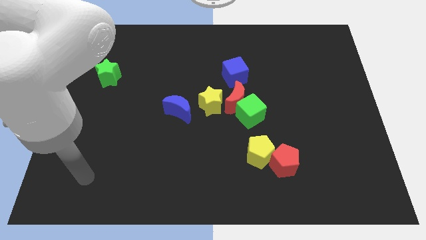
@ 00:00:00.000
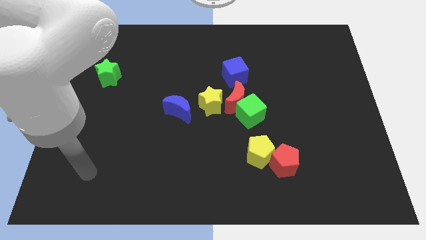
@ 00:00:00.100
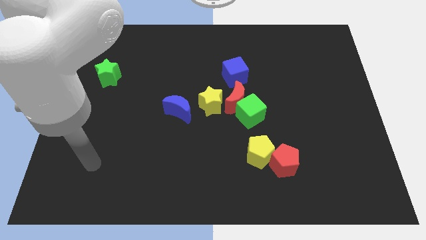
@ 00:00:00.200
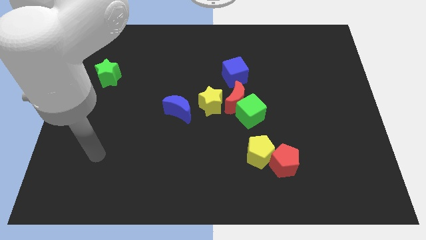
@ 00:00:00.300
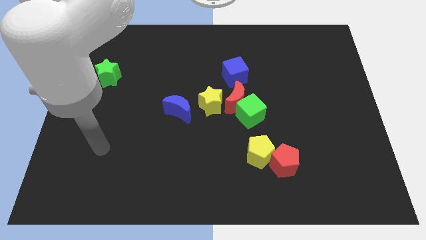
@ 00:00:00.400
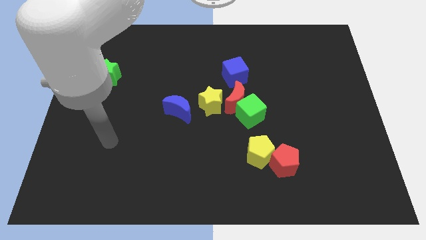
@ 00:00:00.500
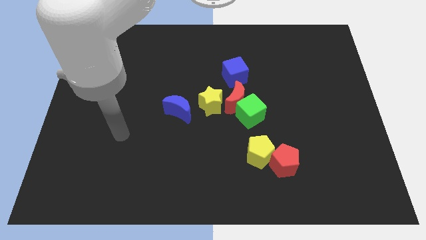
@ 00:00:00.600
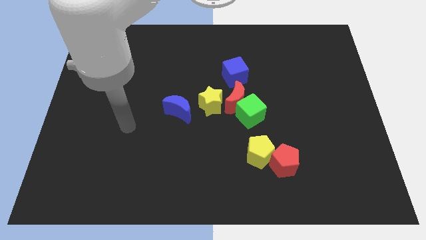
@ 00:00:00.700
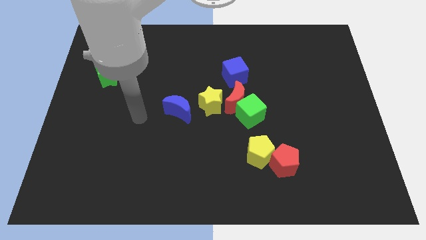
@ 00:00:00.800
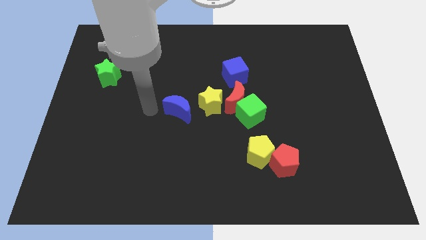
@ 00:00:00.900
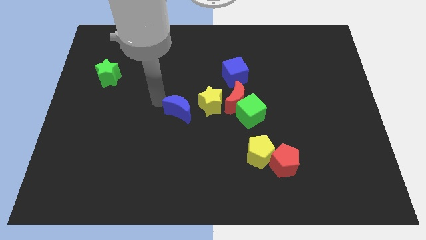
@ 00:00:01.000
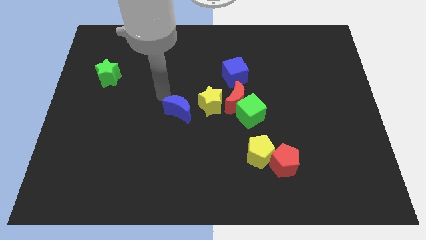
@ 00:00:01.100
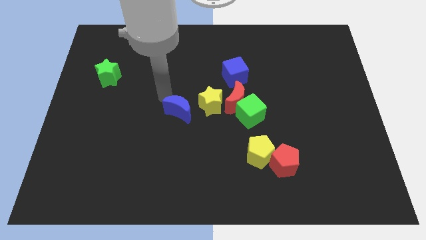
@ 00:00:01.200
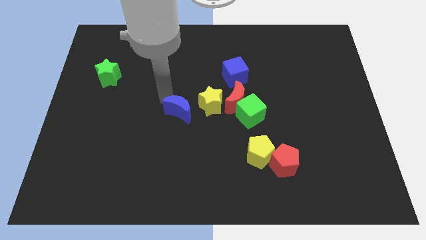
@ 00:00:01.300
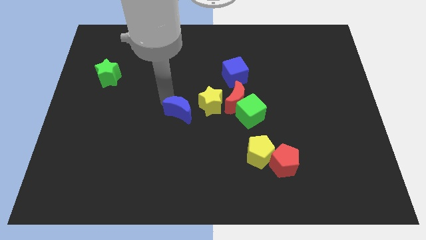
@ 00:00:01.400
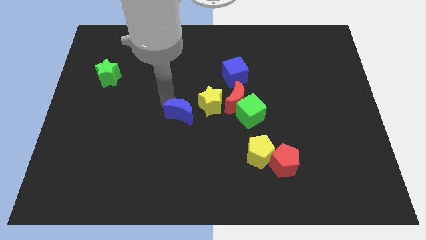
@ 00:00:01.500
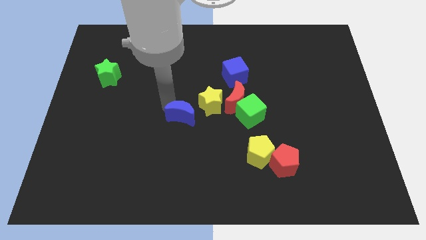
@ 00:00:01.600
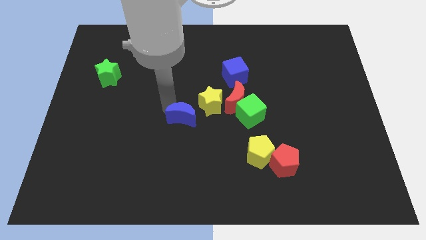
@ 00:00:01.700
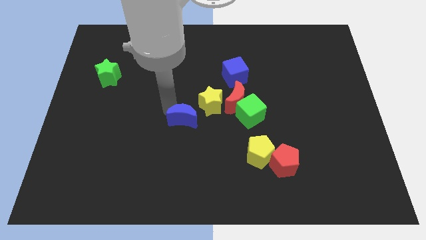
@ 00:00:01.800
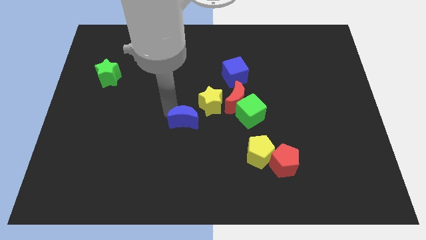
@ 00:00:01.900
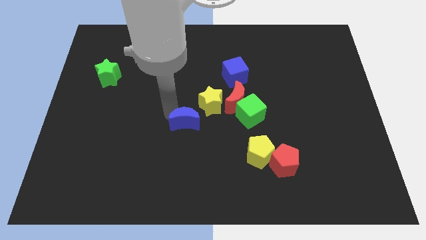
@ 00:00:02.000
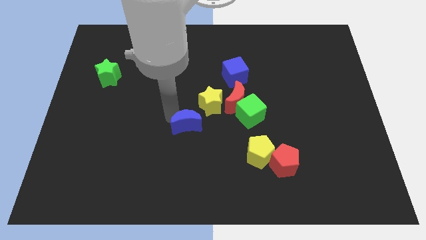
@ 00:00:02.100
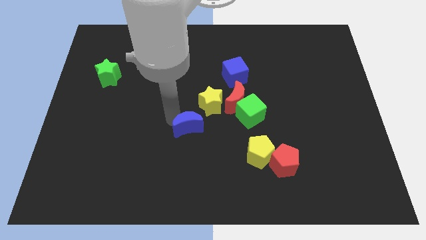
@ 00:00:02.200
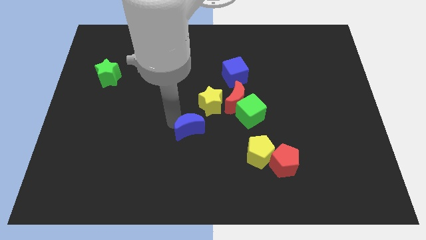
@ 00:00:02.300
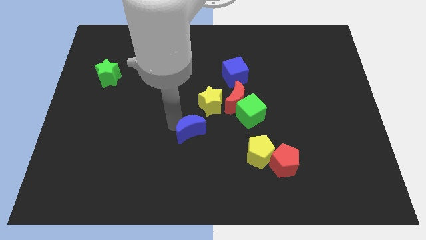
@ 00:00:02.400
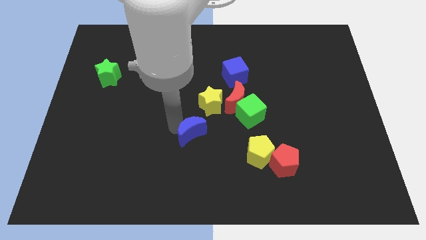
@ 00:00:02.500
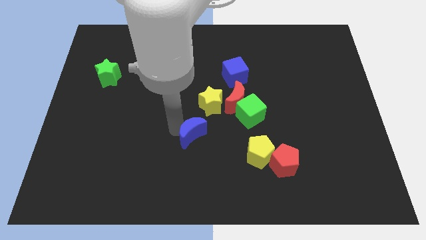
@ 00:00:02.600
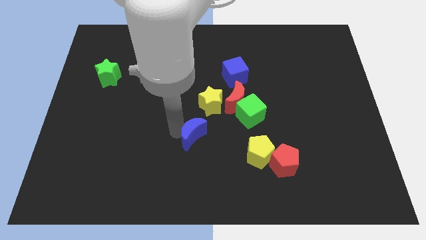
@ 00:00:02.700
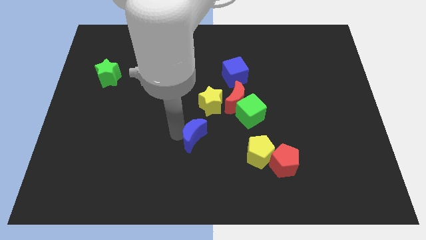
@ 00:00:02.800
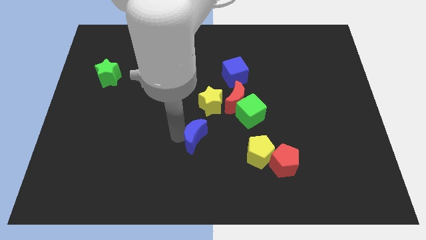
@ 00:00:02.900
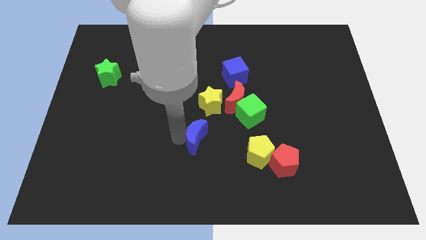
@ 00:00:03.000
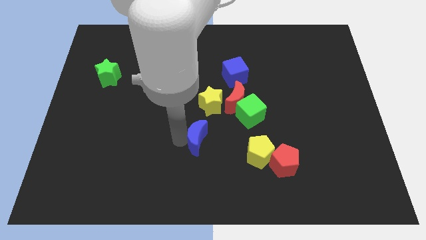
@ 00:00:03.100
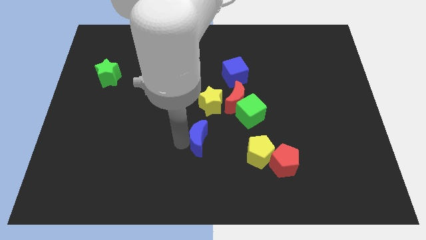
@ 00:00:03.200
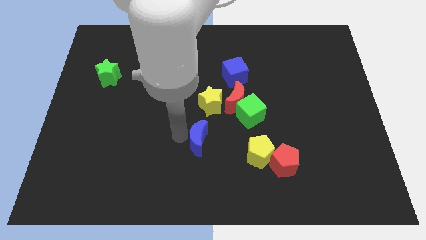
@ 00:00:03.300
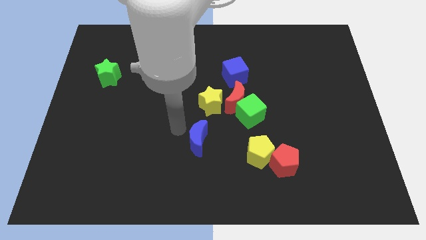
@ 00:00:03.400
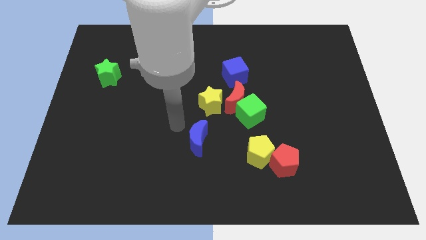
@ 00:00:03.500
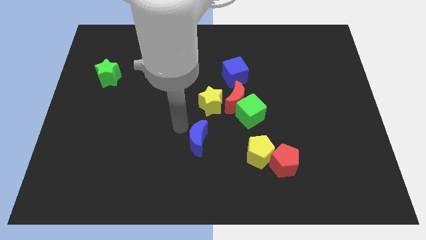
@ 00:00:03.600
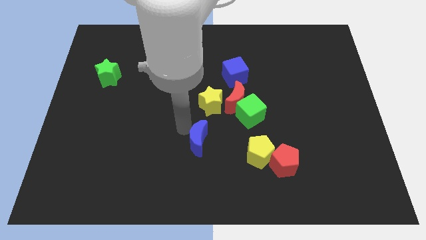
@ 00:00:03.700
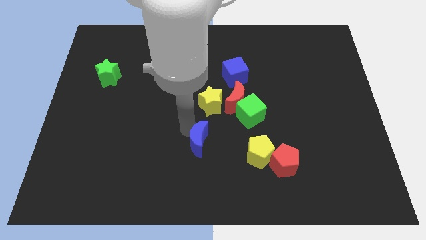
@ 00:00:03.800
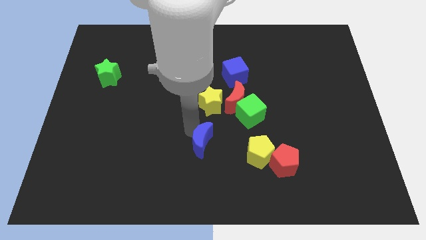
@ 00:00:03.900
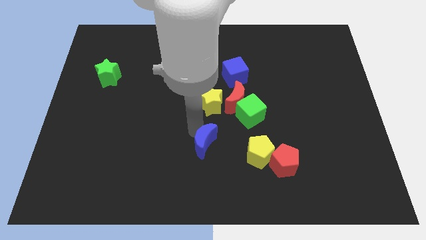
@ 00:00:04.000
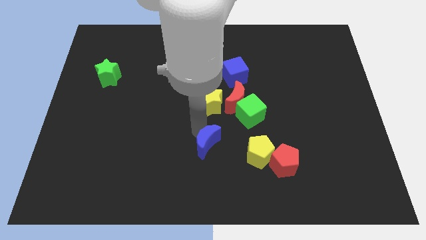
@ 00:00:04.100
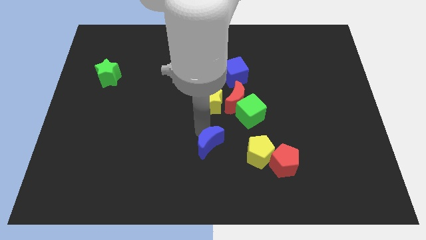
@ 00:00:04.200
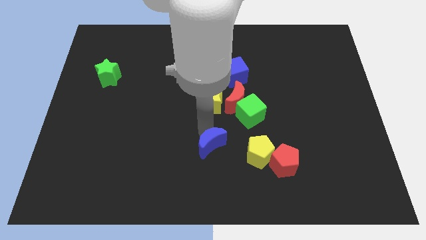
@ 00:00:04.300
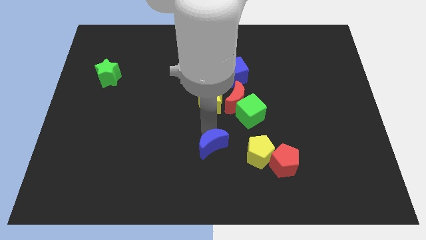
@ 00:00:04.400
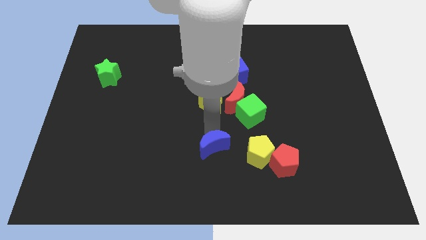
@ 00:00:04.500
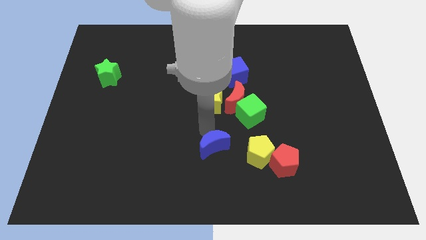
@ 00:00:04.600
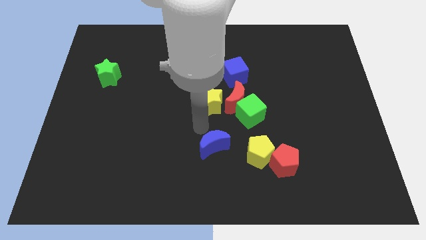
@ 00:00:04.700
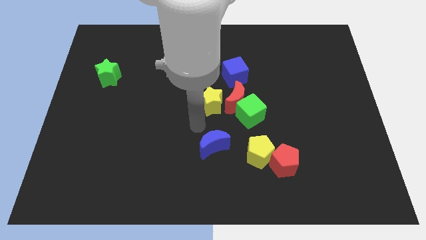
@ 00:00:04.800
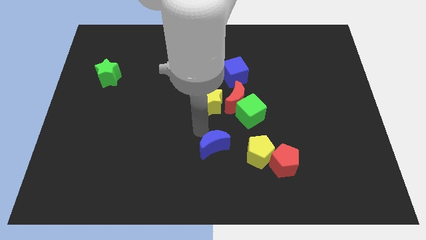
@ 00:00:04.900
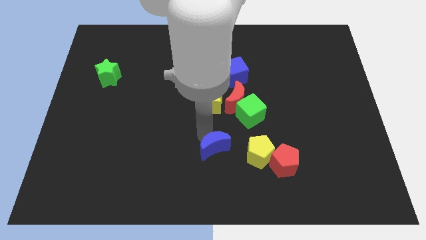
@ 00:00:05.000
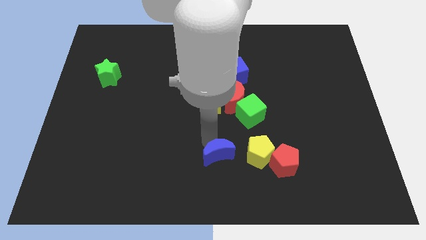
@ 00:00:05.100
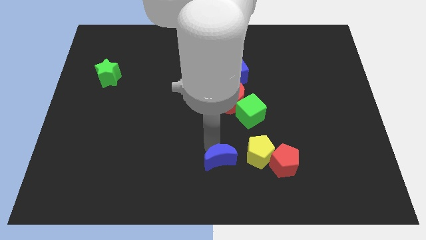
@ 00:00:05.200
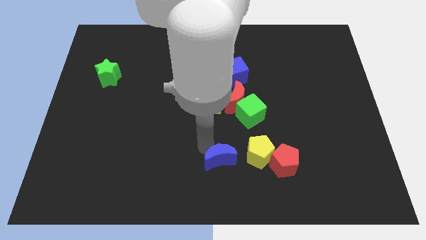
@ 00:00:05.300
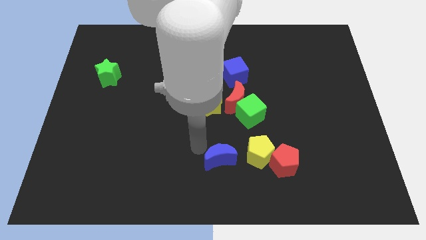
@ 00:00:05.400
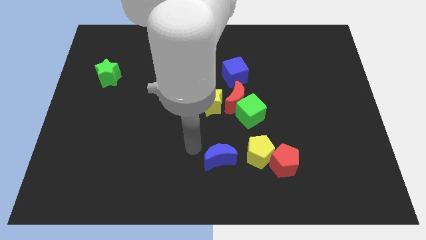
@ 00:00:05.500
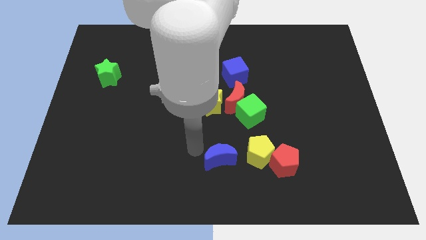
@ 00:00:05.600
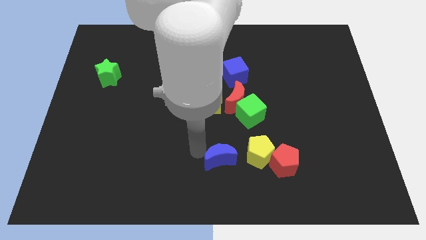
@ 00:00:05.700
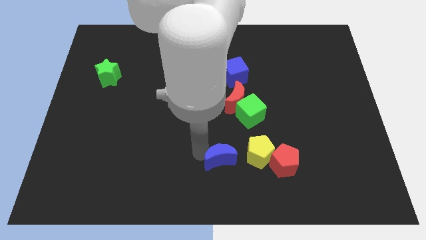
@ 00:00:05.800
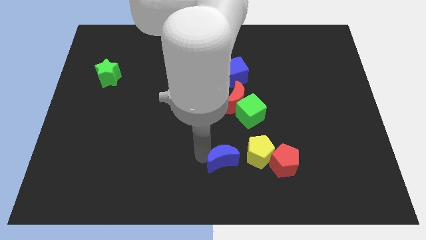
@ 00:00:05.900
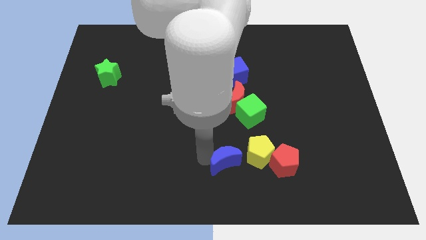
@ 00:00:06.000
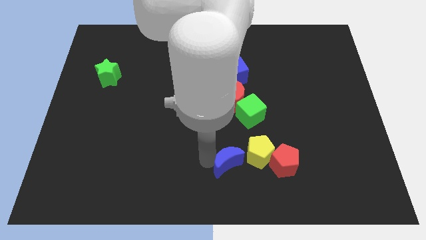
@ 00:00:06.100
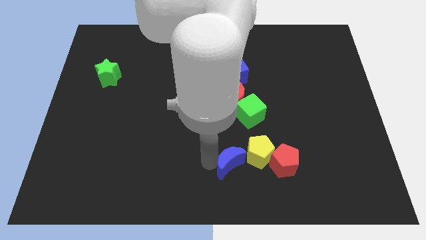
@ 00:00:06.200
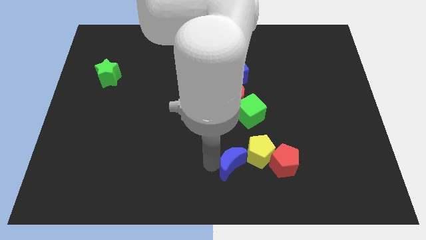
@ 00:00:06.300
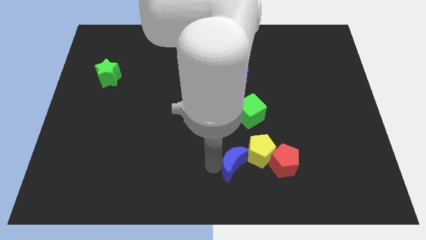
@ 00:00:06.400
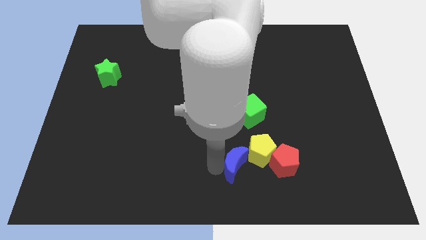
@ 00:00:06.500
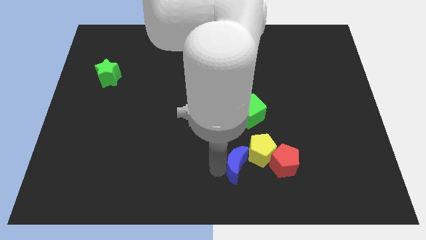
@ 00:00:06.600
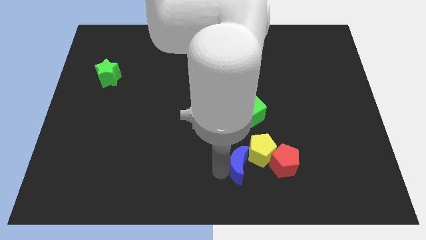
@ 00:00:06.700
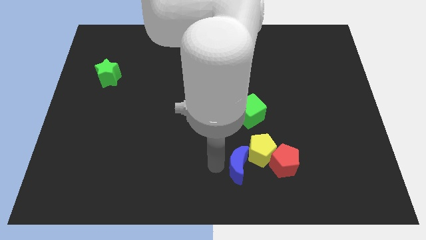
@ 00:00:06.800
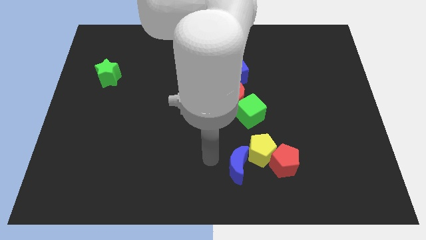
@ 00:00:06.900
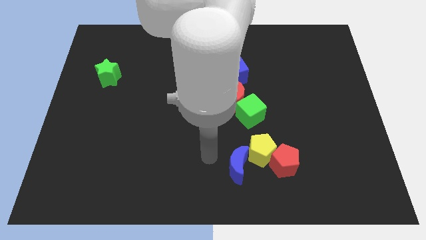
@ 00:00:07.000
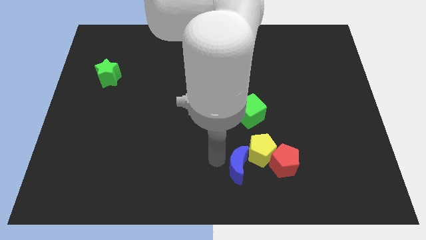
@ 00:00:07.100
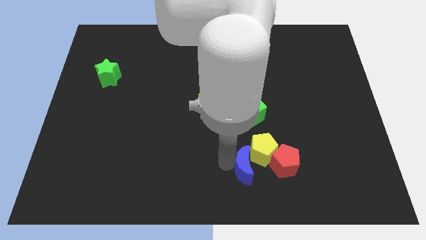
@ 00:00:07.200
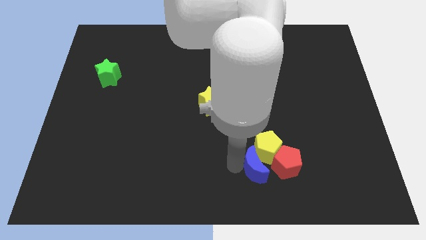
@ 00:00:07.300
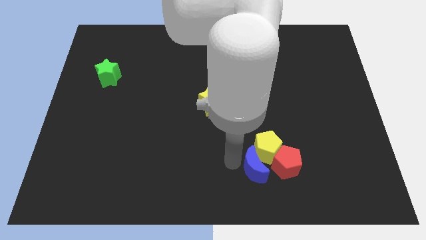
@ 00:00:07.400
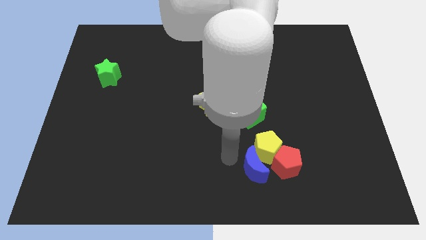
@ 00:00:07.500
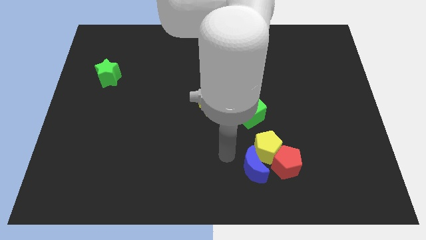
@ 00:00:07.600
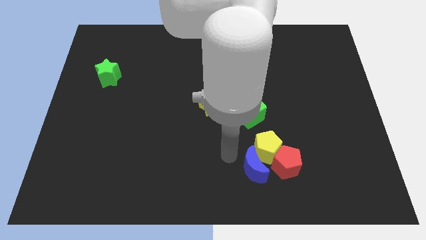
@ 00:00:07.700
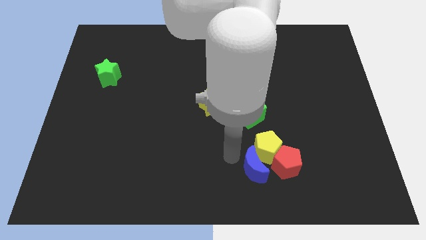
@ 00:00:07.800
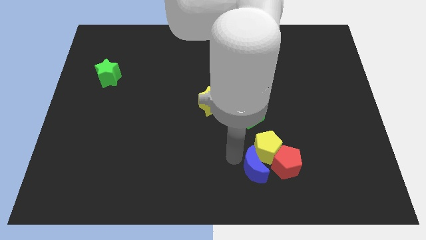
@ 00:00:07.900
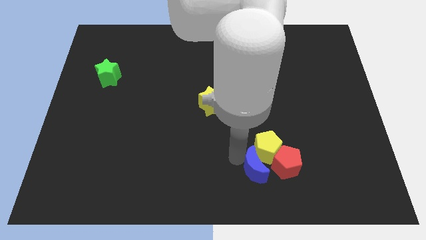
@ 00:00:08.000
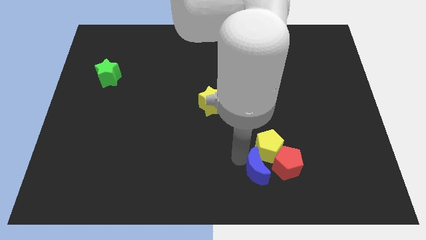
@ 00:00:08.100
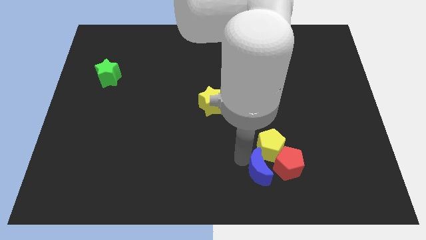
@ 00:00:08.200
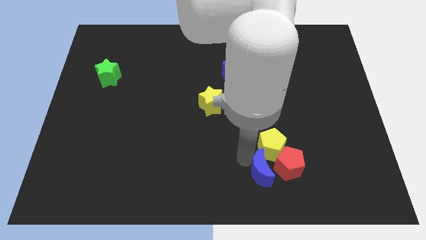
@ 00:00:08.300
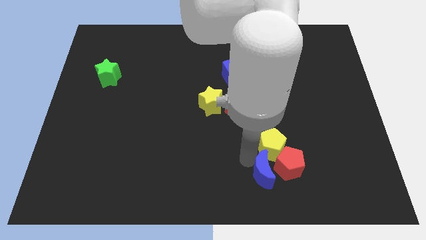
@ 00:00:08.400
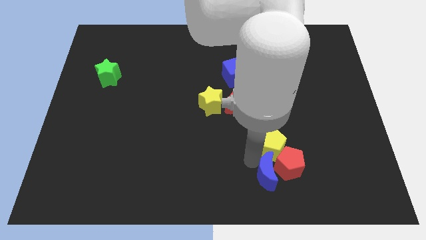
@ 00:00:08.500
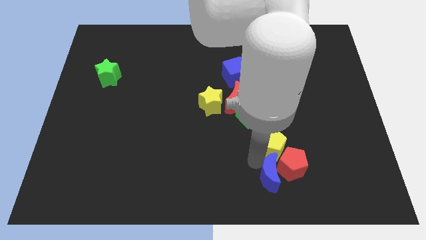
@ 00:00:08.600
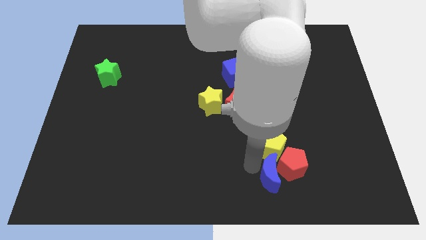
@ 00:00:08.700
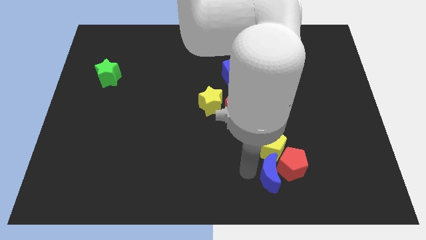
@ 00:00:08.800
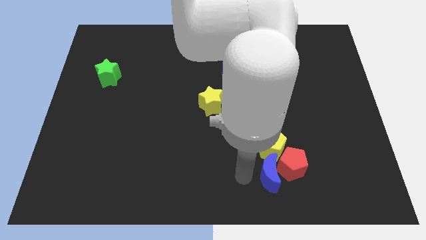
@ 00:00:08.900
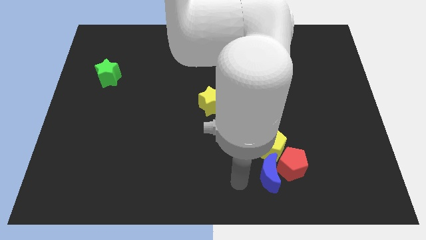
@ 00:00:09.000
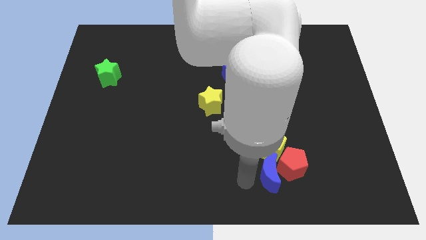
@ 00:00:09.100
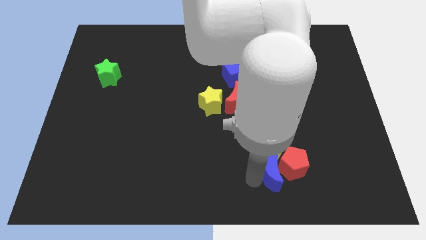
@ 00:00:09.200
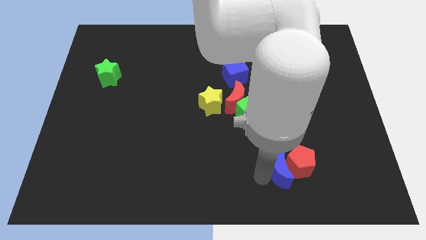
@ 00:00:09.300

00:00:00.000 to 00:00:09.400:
put the blue moon to the bottom right of the yellow pentagon
